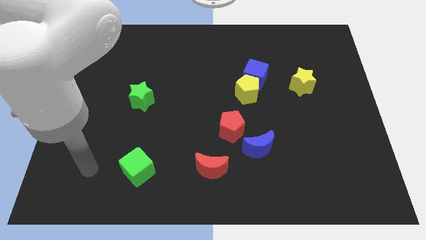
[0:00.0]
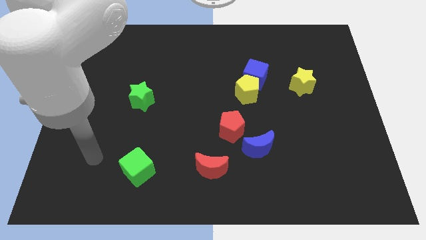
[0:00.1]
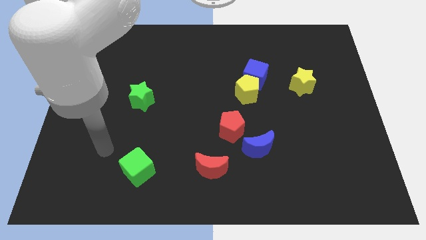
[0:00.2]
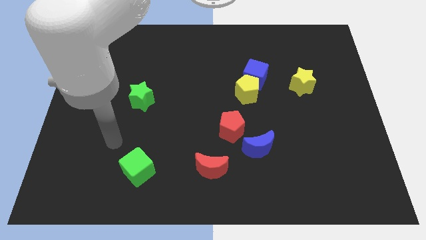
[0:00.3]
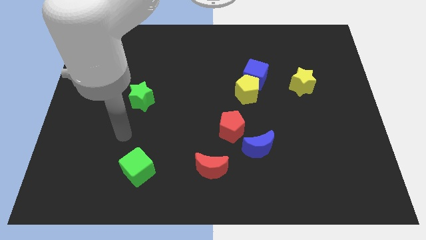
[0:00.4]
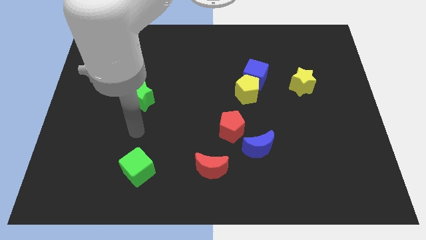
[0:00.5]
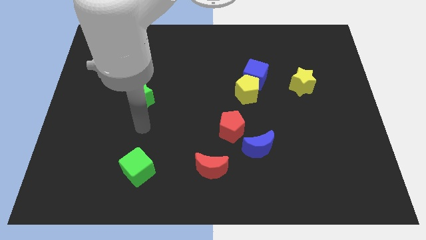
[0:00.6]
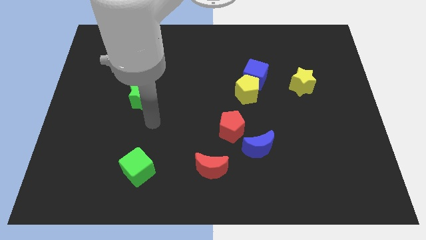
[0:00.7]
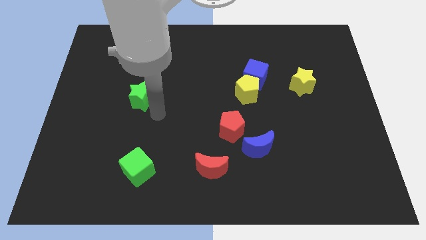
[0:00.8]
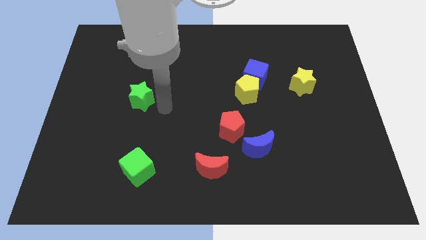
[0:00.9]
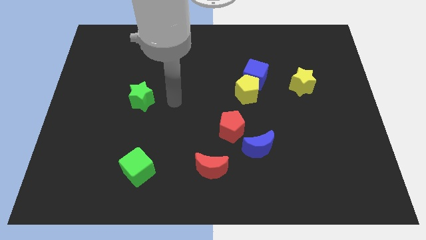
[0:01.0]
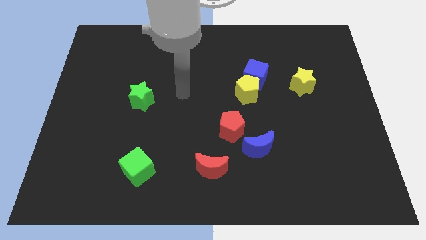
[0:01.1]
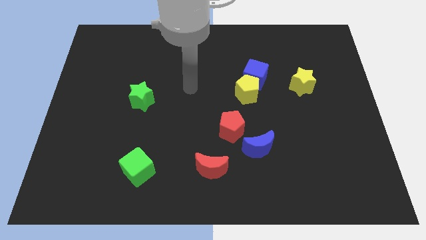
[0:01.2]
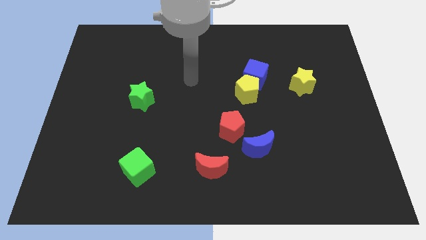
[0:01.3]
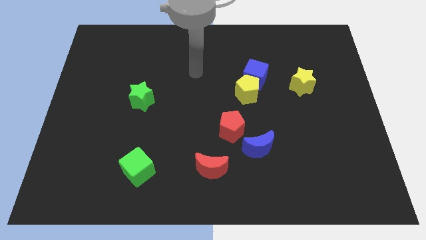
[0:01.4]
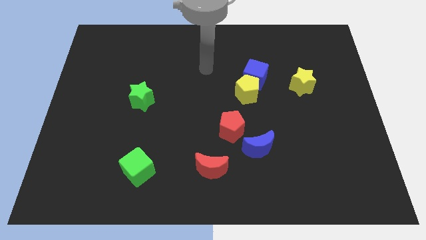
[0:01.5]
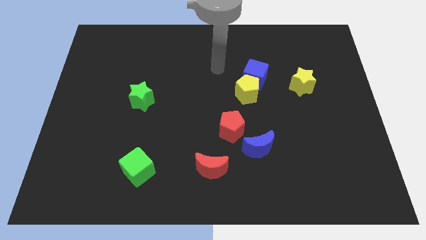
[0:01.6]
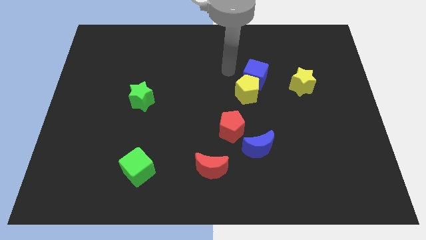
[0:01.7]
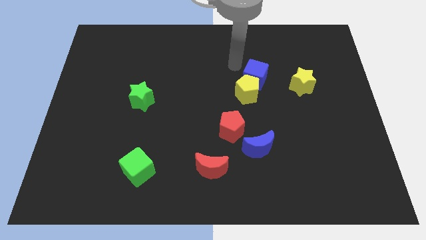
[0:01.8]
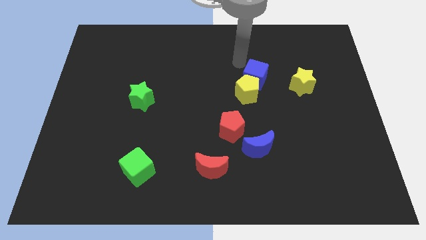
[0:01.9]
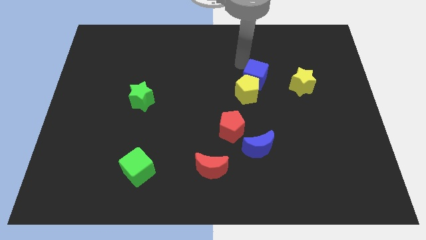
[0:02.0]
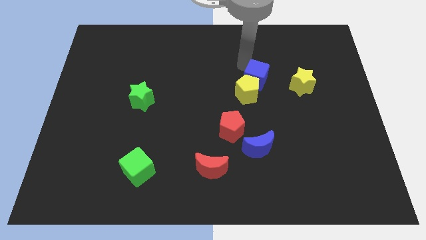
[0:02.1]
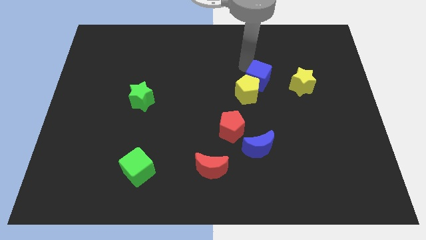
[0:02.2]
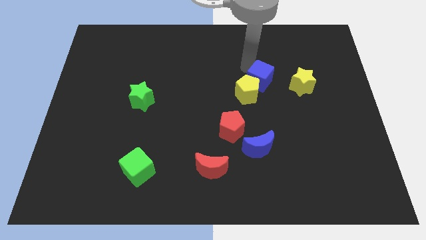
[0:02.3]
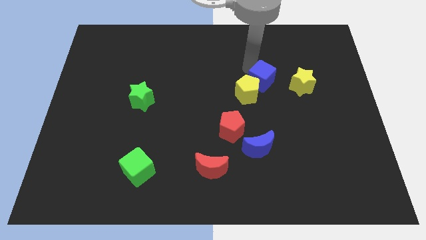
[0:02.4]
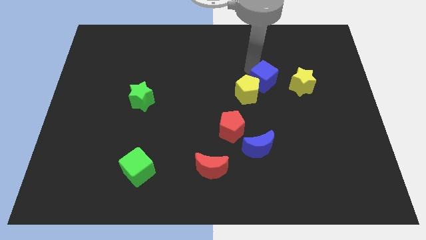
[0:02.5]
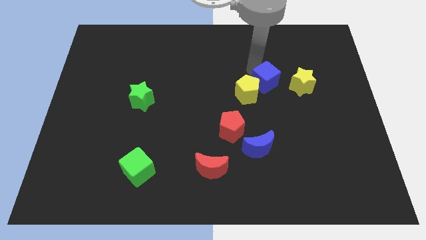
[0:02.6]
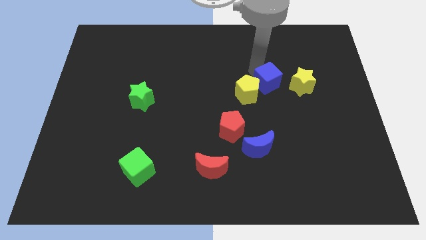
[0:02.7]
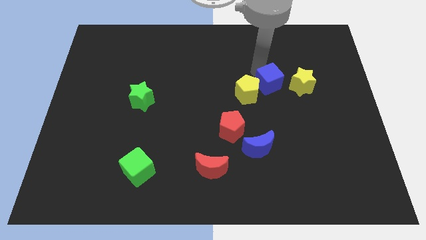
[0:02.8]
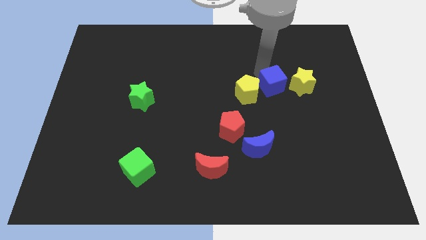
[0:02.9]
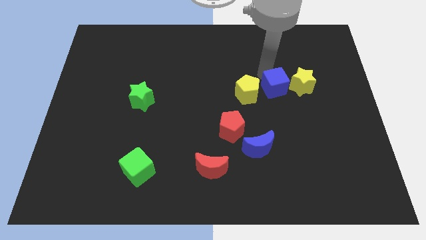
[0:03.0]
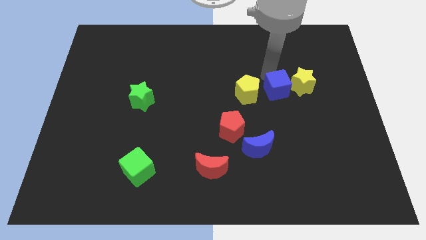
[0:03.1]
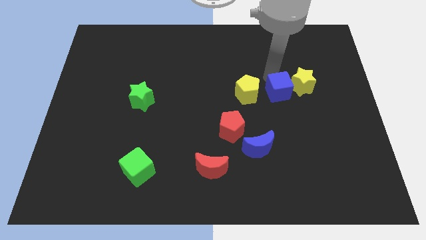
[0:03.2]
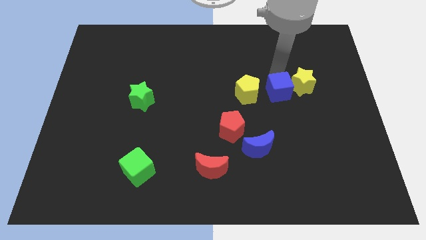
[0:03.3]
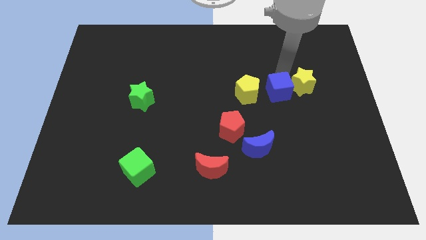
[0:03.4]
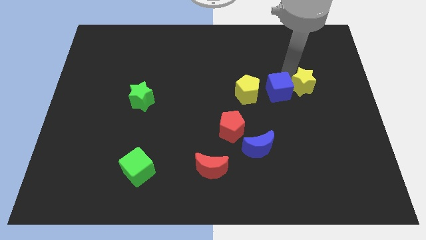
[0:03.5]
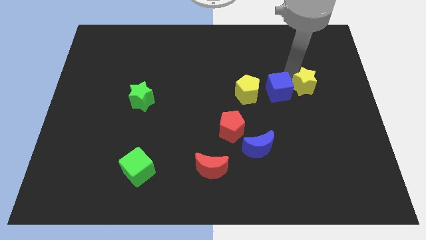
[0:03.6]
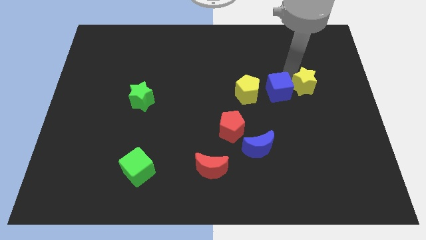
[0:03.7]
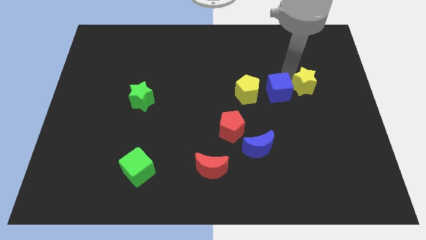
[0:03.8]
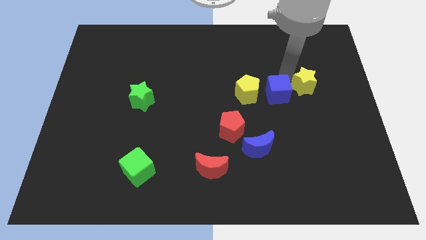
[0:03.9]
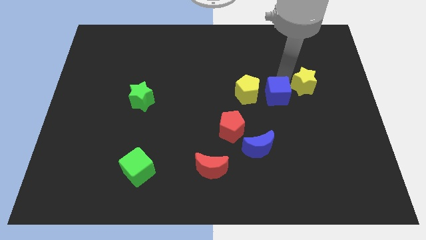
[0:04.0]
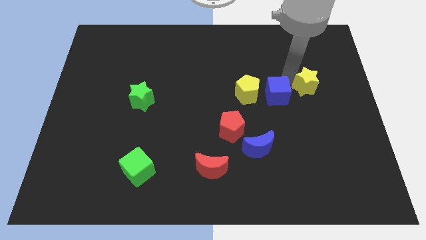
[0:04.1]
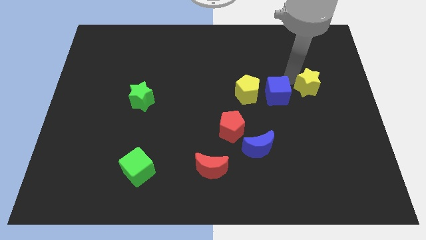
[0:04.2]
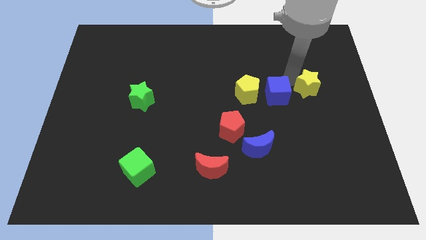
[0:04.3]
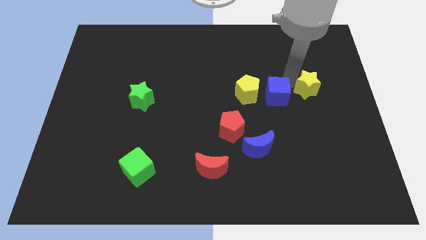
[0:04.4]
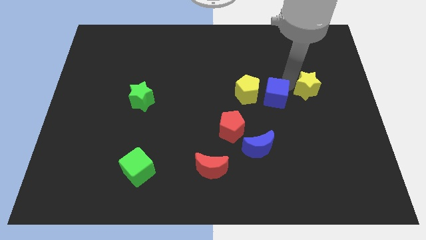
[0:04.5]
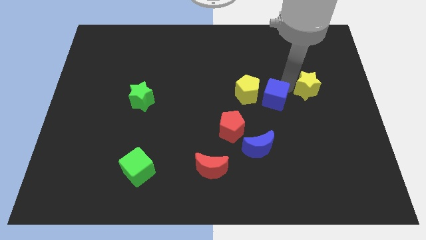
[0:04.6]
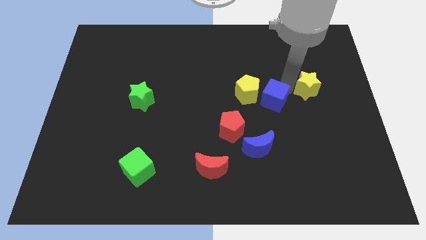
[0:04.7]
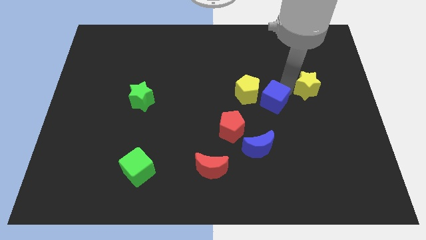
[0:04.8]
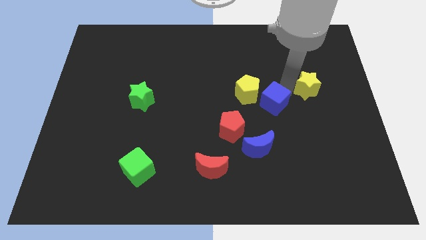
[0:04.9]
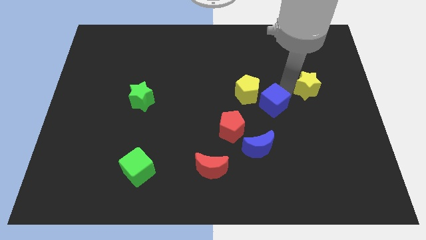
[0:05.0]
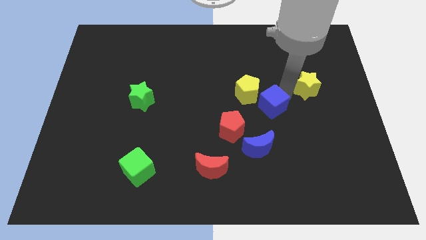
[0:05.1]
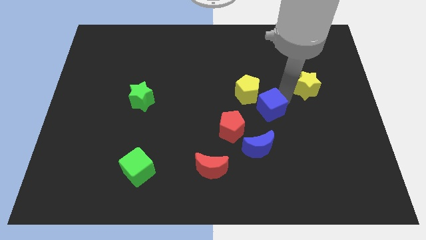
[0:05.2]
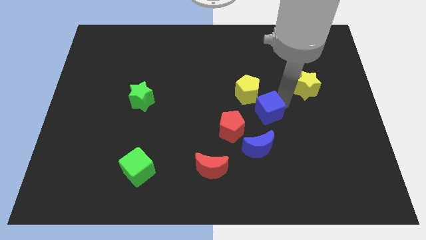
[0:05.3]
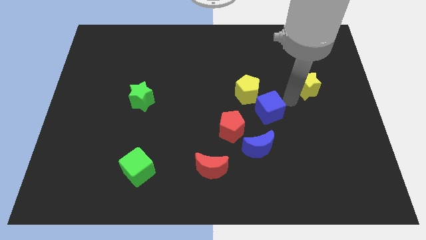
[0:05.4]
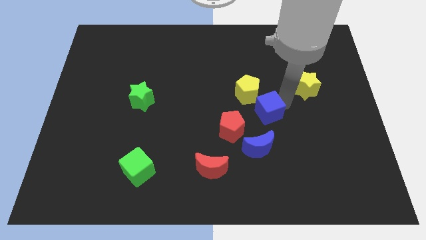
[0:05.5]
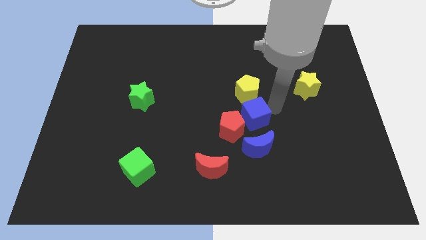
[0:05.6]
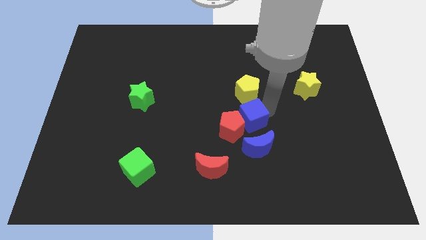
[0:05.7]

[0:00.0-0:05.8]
push the blue cube next to the red pentagon
